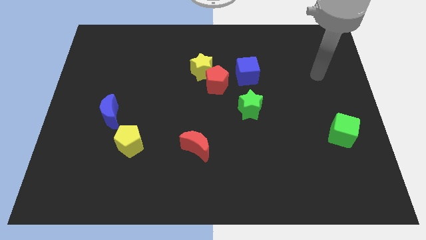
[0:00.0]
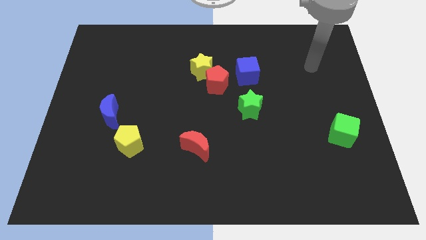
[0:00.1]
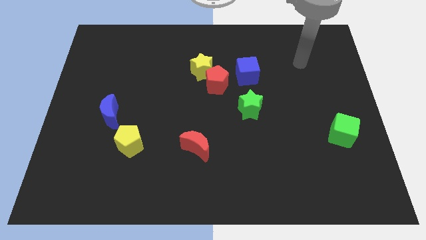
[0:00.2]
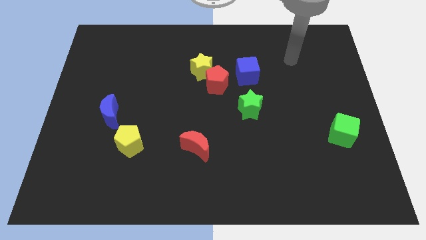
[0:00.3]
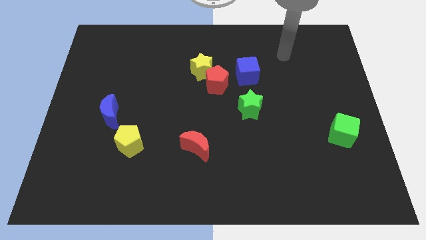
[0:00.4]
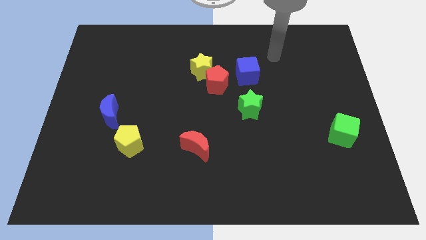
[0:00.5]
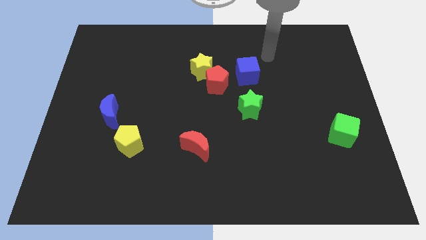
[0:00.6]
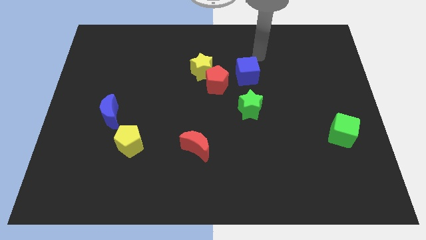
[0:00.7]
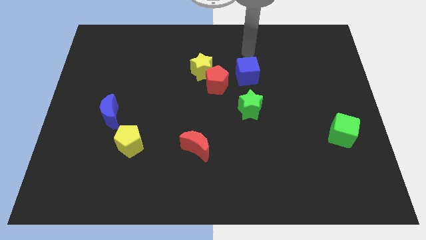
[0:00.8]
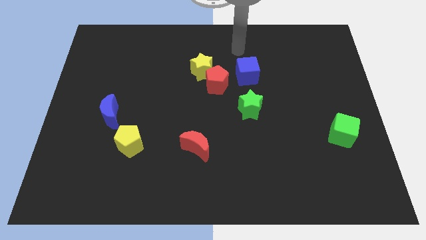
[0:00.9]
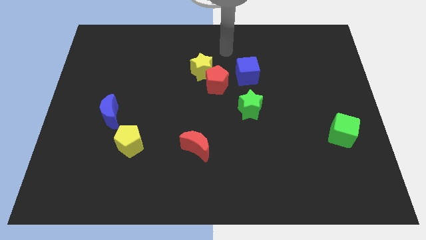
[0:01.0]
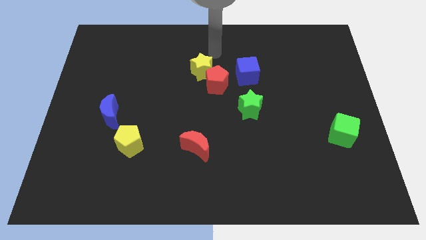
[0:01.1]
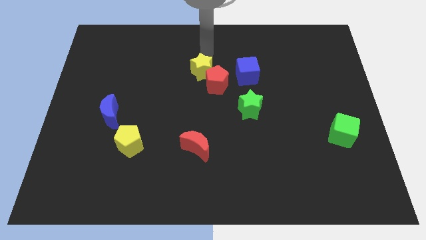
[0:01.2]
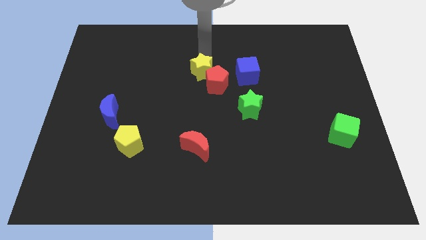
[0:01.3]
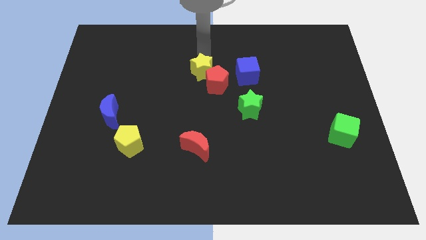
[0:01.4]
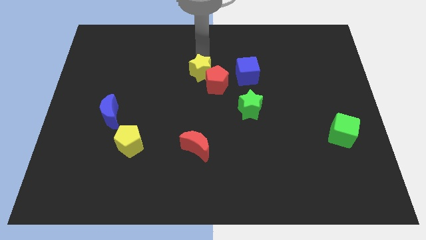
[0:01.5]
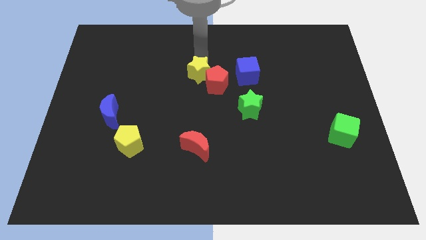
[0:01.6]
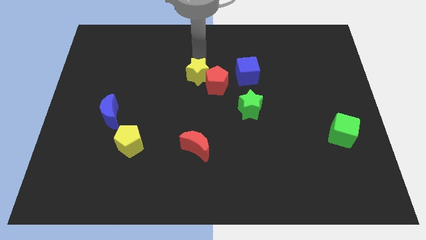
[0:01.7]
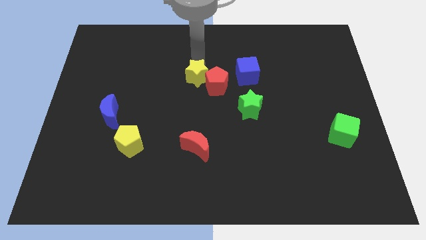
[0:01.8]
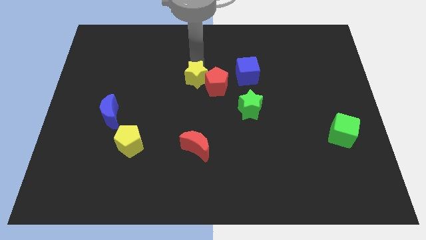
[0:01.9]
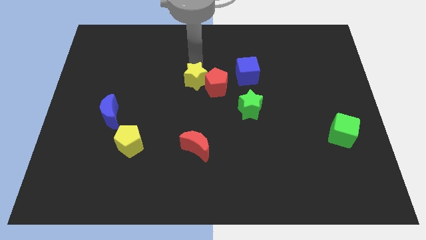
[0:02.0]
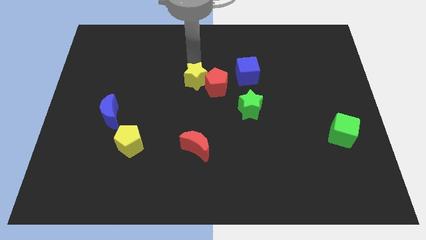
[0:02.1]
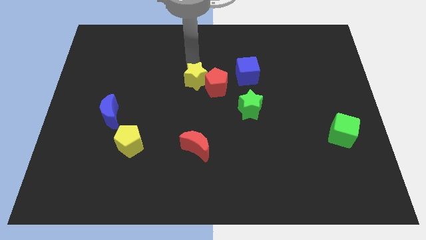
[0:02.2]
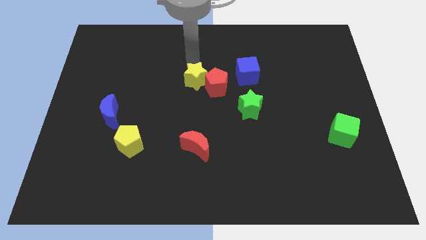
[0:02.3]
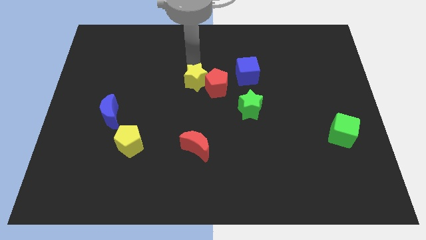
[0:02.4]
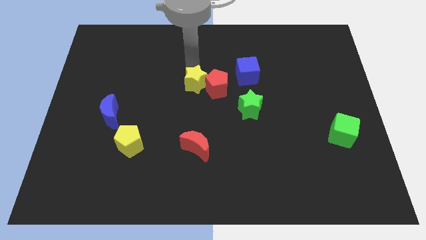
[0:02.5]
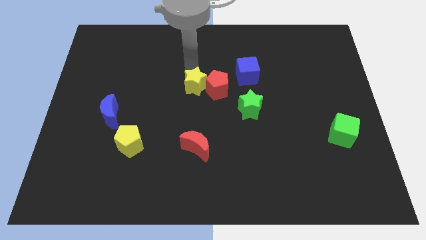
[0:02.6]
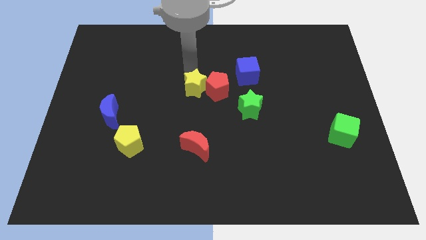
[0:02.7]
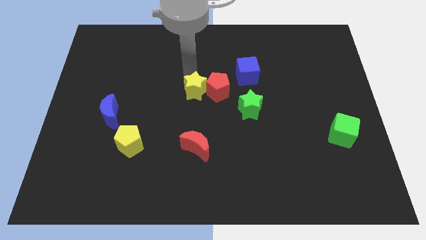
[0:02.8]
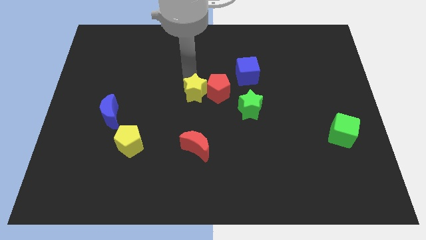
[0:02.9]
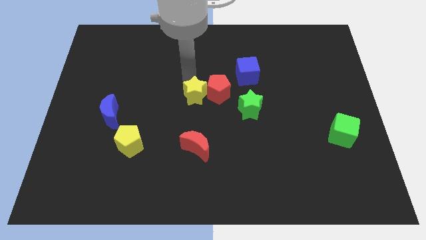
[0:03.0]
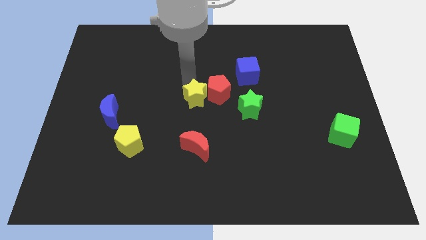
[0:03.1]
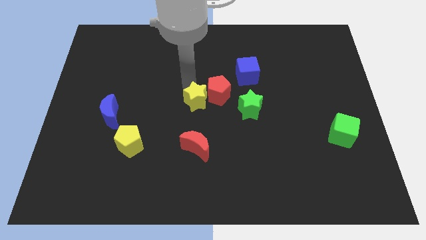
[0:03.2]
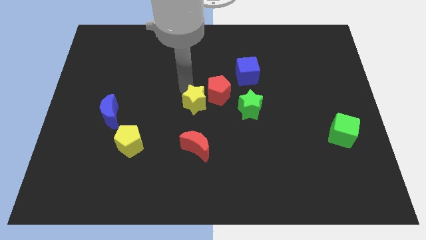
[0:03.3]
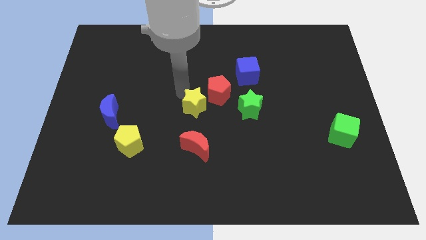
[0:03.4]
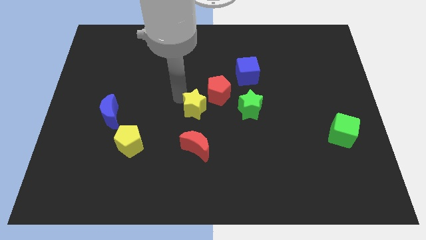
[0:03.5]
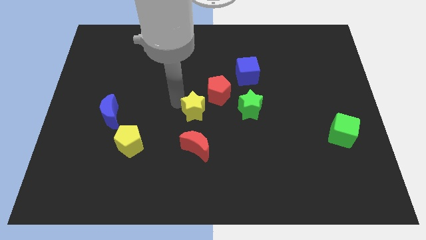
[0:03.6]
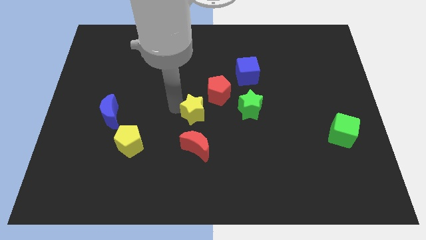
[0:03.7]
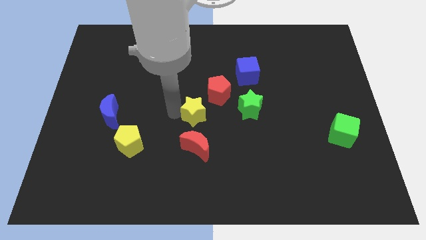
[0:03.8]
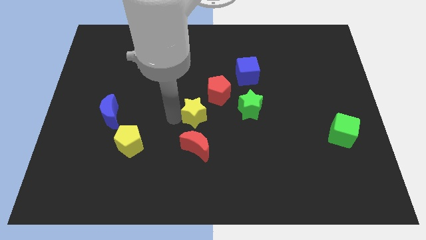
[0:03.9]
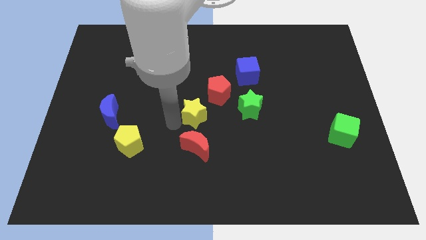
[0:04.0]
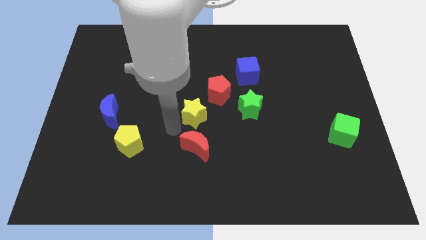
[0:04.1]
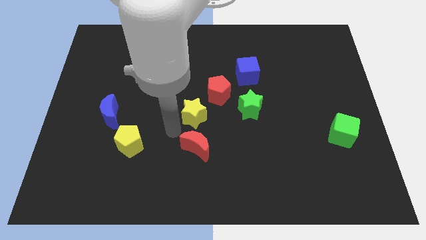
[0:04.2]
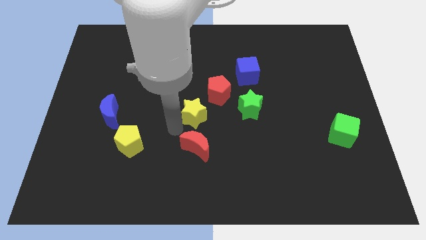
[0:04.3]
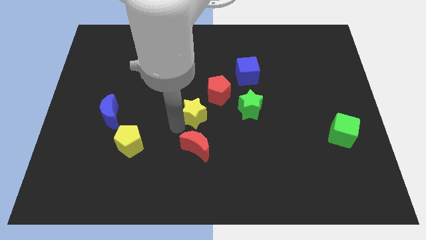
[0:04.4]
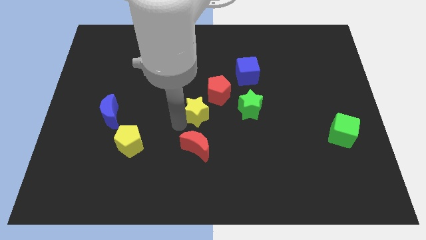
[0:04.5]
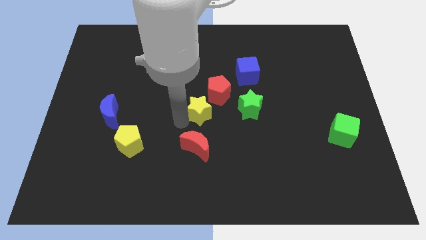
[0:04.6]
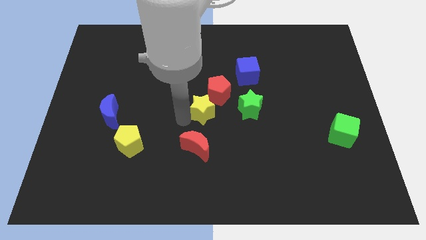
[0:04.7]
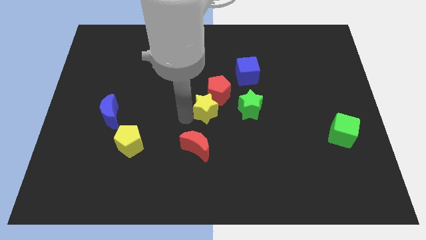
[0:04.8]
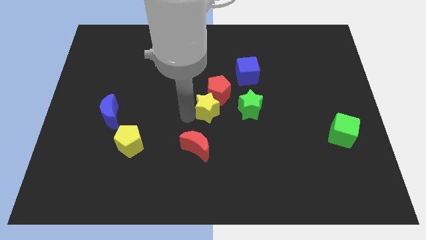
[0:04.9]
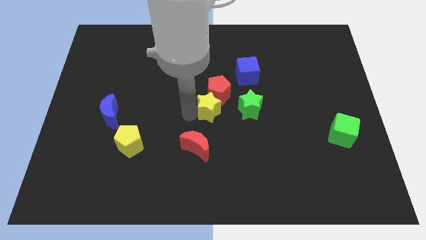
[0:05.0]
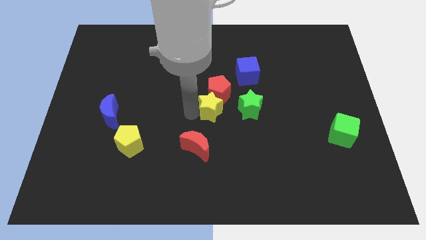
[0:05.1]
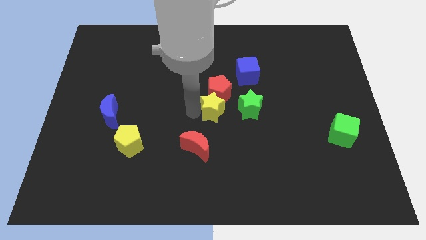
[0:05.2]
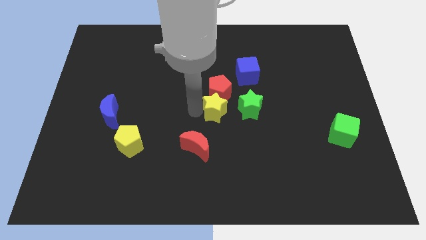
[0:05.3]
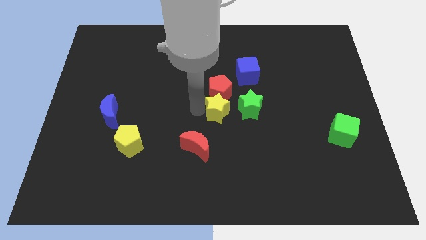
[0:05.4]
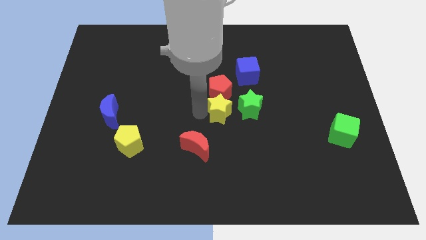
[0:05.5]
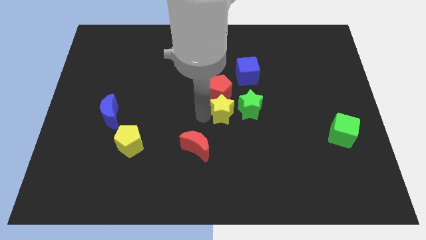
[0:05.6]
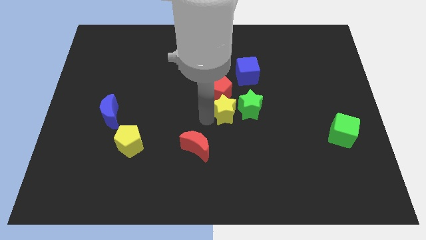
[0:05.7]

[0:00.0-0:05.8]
put the yellow star close to the green star

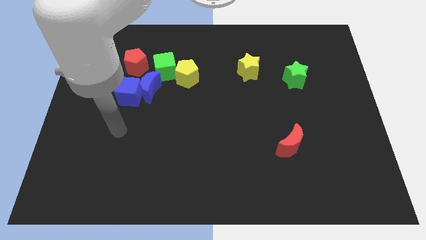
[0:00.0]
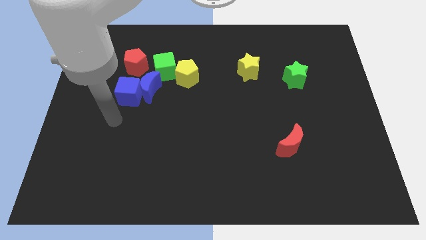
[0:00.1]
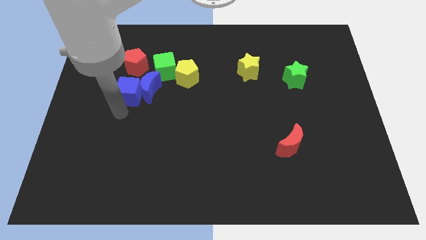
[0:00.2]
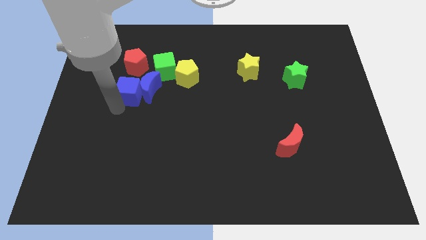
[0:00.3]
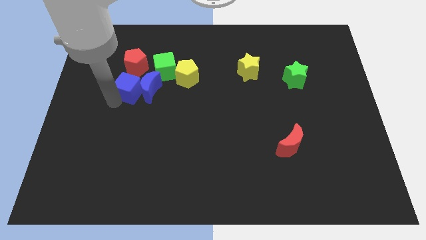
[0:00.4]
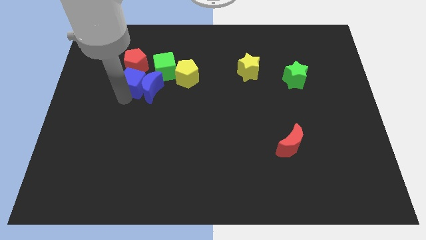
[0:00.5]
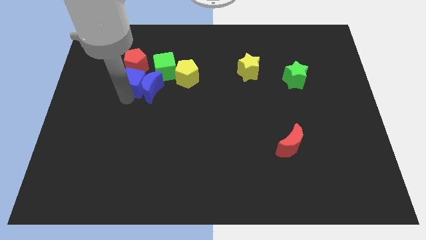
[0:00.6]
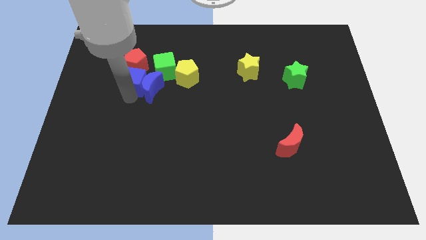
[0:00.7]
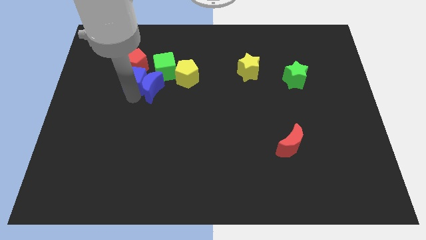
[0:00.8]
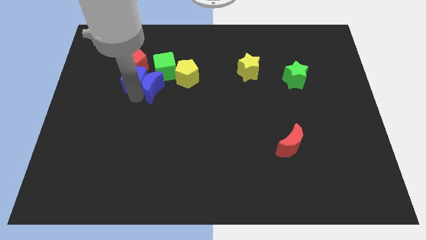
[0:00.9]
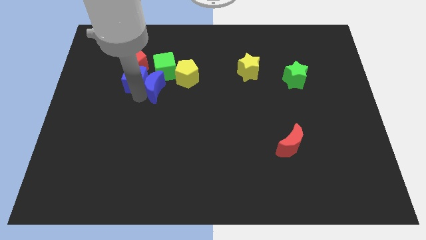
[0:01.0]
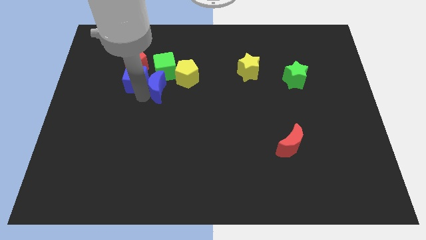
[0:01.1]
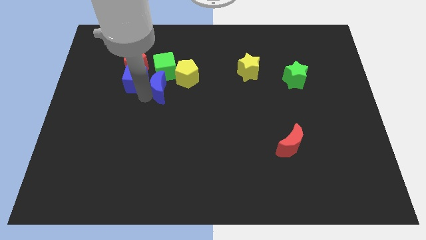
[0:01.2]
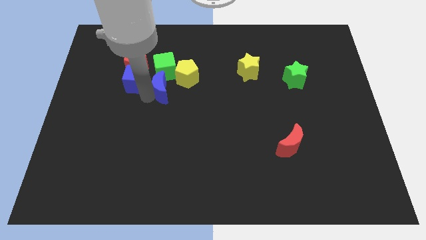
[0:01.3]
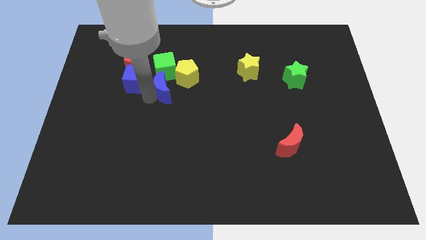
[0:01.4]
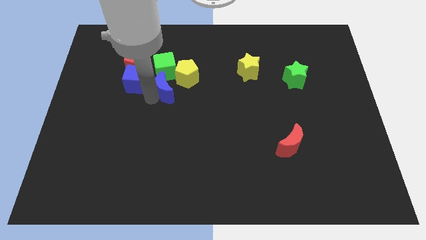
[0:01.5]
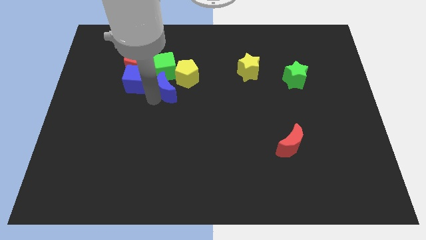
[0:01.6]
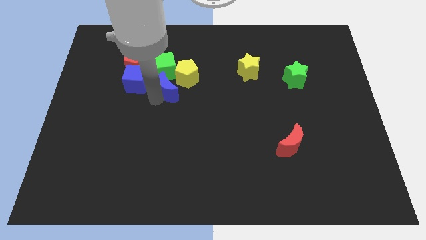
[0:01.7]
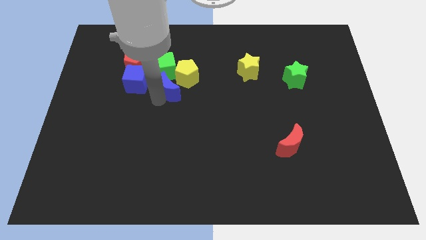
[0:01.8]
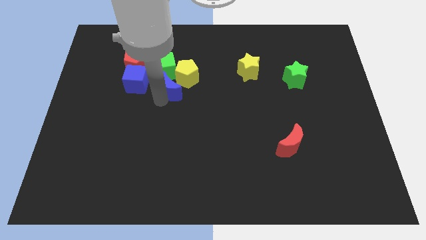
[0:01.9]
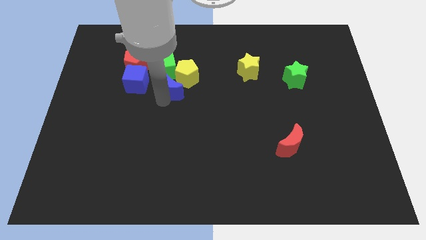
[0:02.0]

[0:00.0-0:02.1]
move the blue moon to the yellow pentagon
